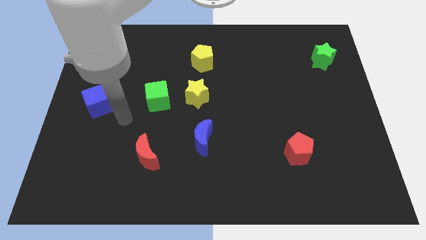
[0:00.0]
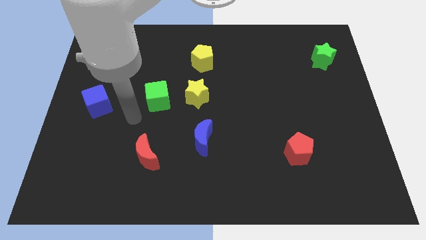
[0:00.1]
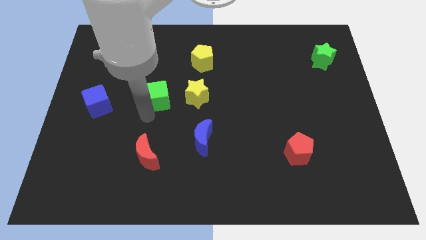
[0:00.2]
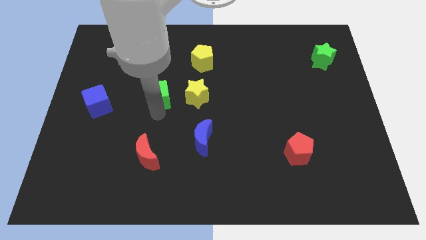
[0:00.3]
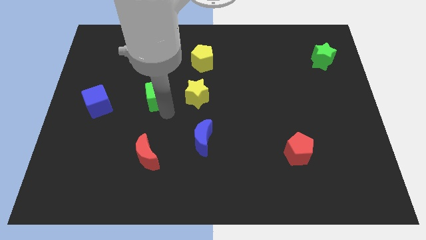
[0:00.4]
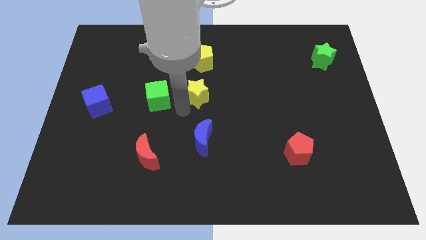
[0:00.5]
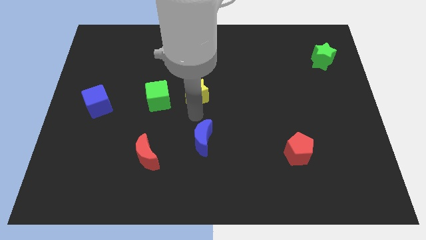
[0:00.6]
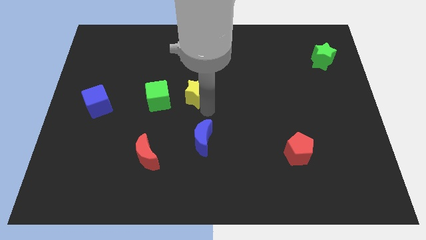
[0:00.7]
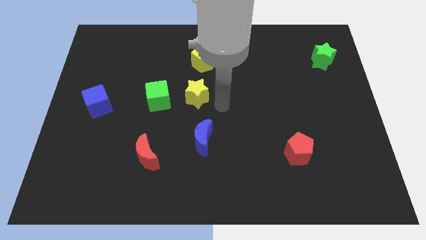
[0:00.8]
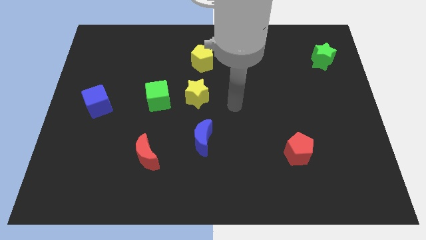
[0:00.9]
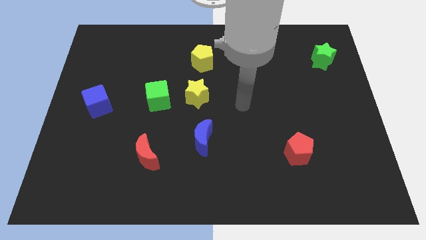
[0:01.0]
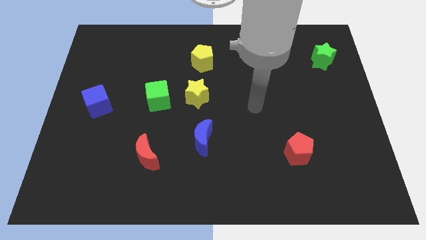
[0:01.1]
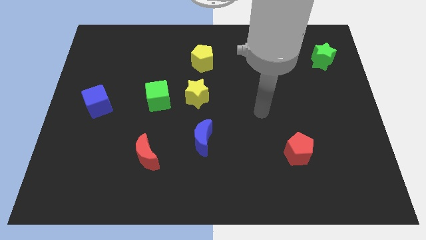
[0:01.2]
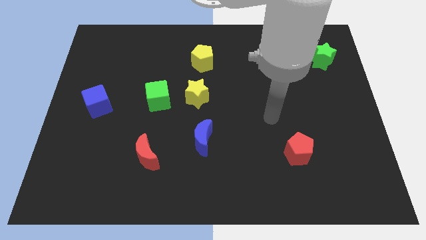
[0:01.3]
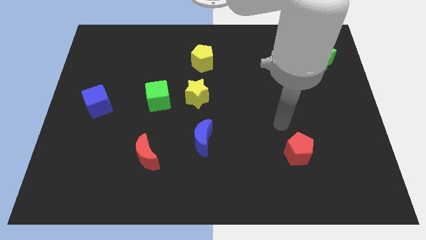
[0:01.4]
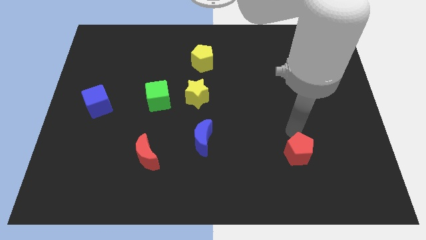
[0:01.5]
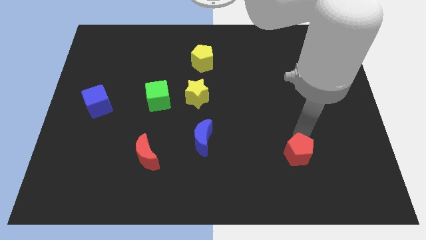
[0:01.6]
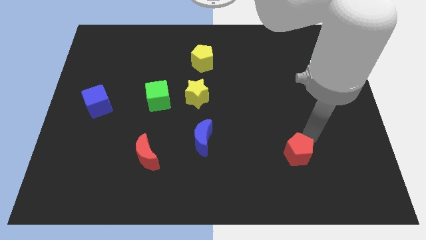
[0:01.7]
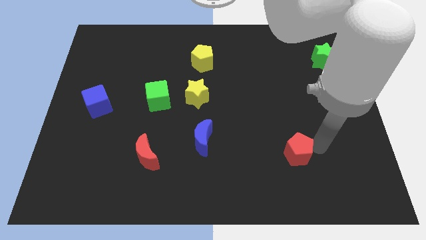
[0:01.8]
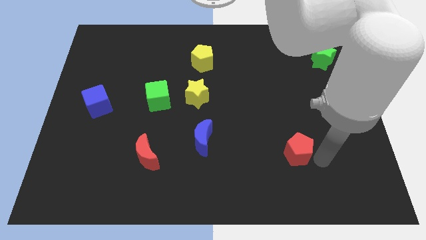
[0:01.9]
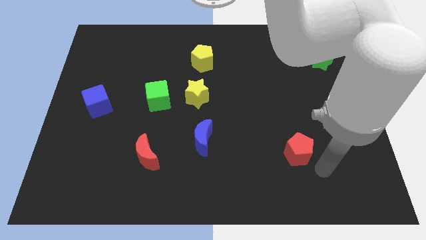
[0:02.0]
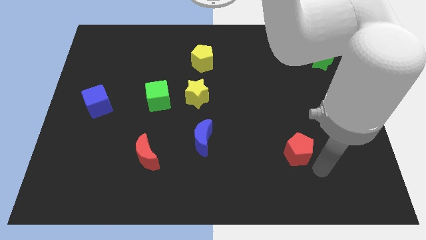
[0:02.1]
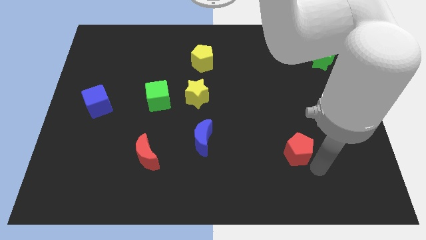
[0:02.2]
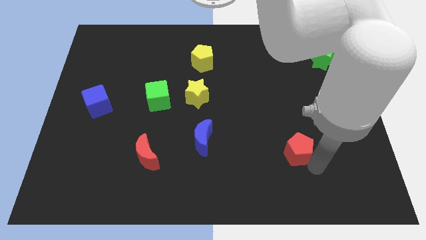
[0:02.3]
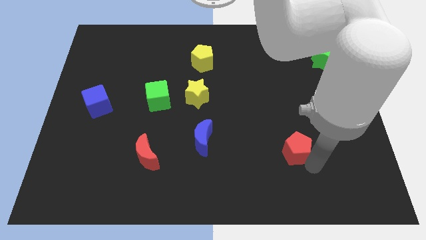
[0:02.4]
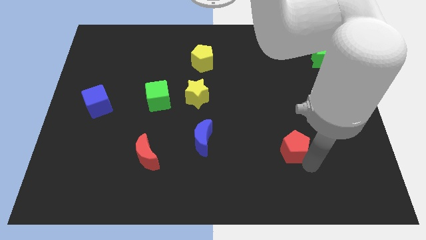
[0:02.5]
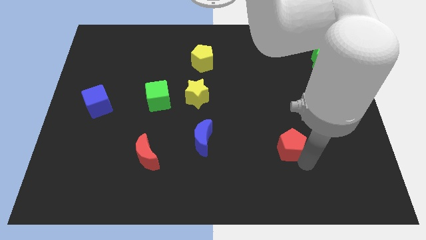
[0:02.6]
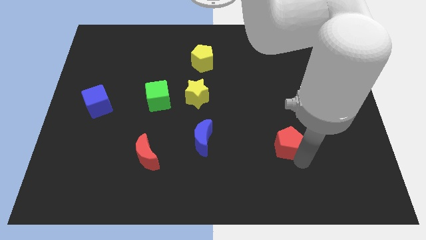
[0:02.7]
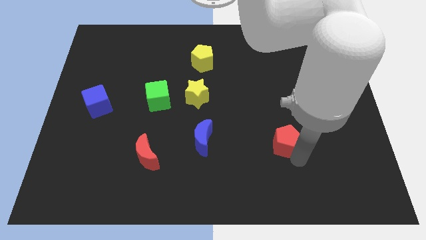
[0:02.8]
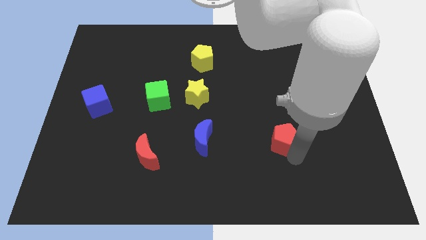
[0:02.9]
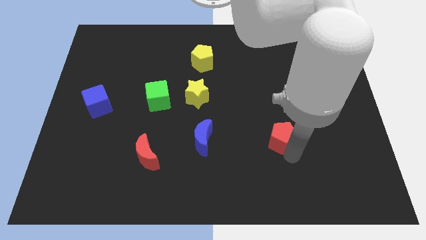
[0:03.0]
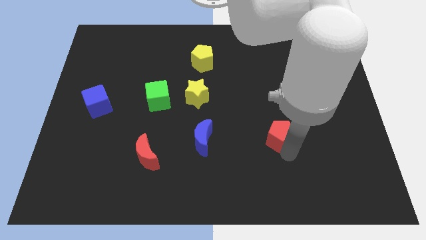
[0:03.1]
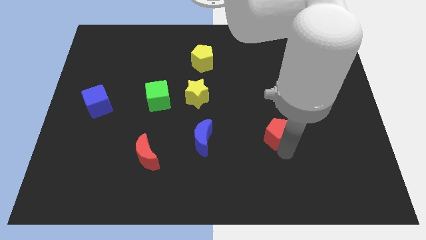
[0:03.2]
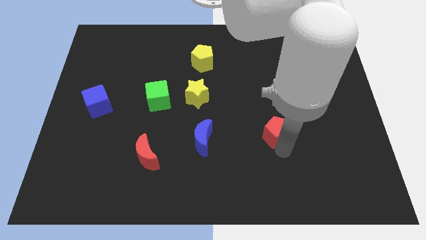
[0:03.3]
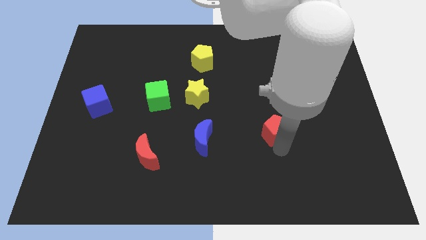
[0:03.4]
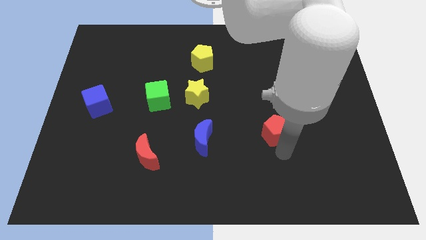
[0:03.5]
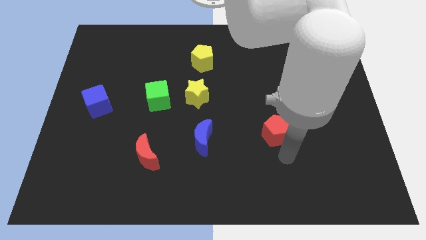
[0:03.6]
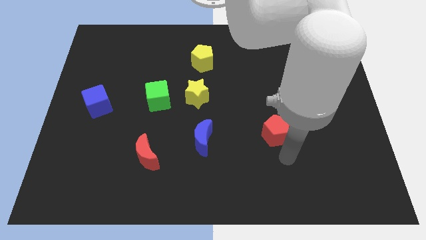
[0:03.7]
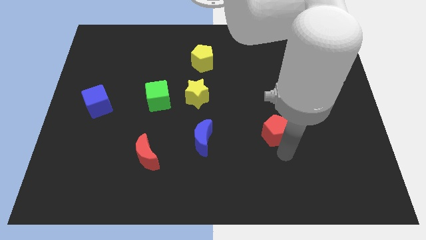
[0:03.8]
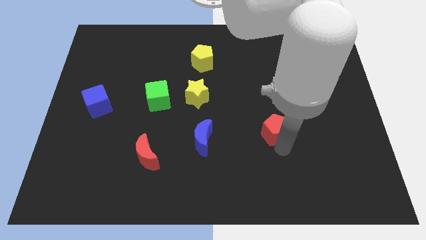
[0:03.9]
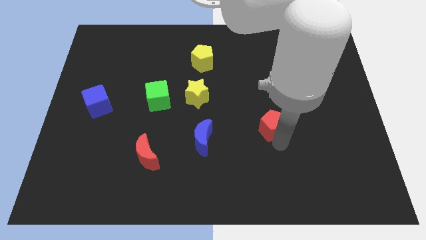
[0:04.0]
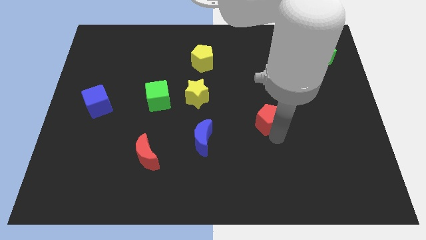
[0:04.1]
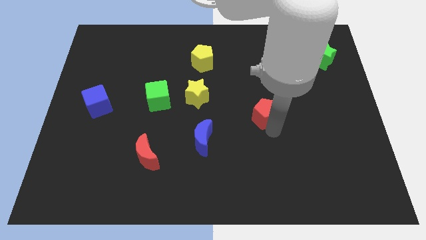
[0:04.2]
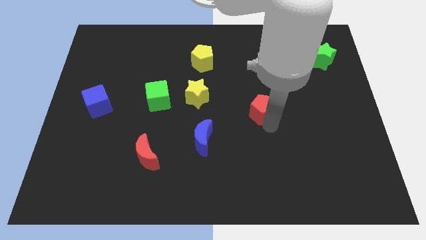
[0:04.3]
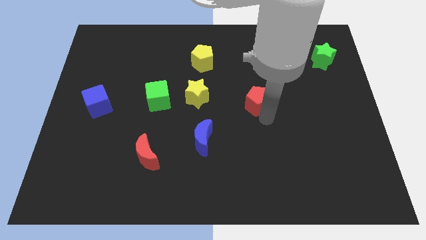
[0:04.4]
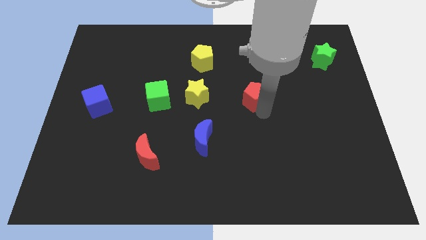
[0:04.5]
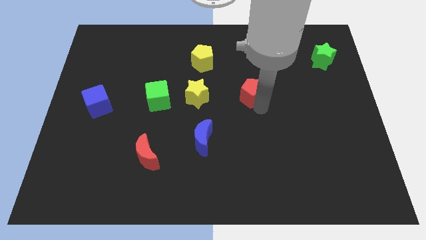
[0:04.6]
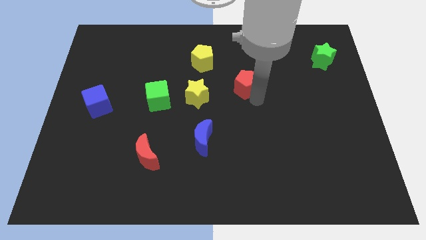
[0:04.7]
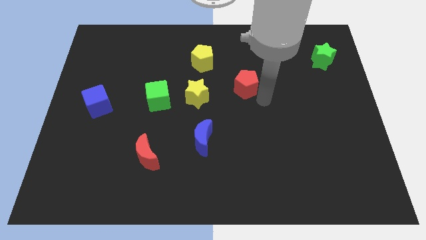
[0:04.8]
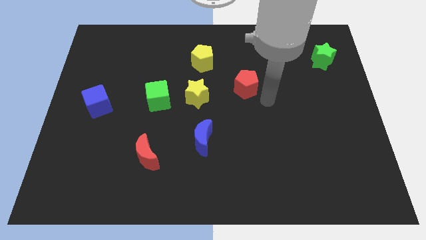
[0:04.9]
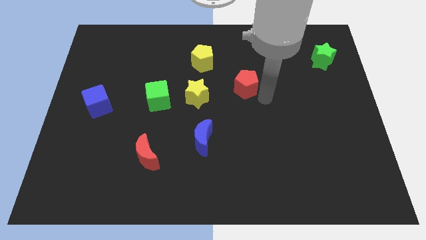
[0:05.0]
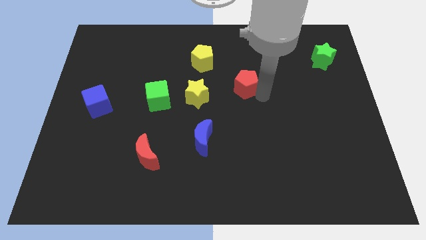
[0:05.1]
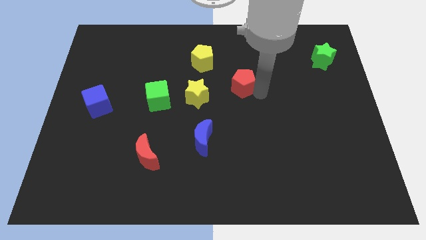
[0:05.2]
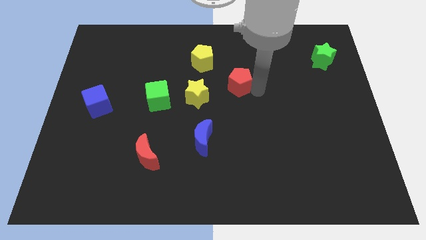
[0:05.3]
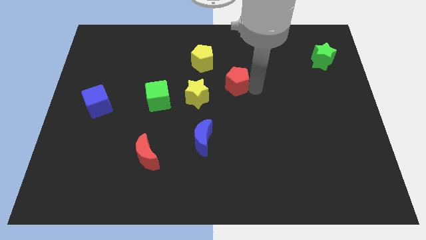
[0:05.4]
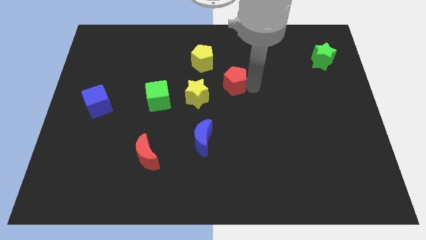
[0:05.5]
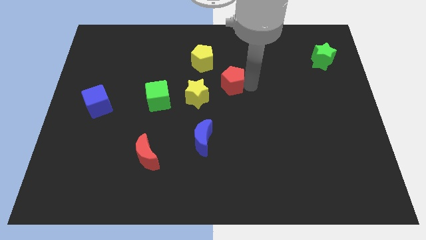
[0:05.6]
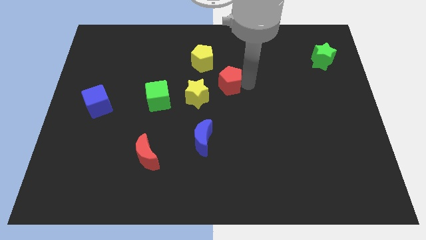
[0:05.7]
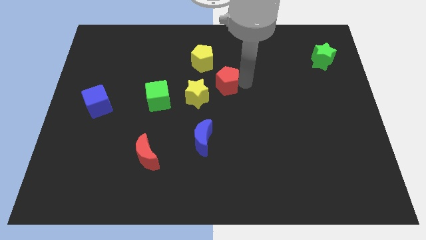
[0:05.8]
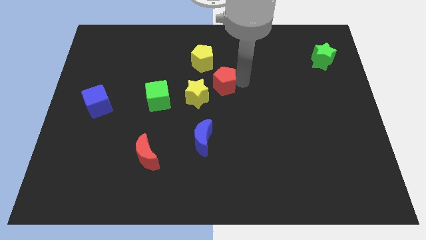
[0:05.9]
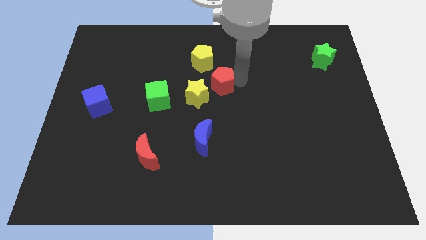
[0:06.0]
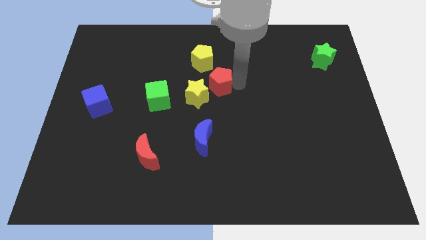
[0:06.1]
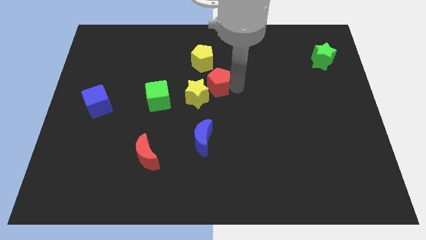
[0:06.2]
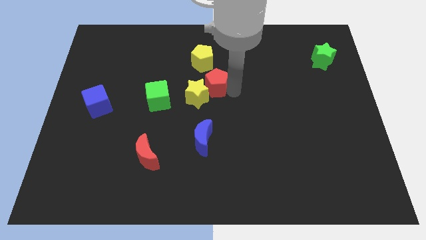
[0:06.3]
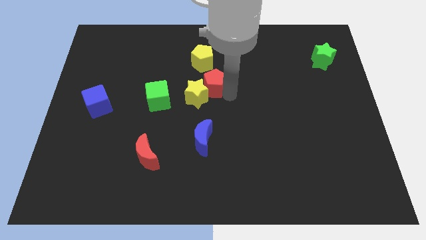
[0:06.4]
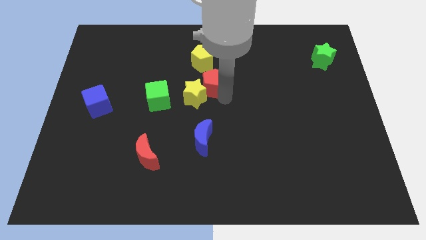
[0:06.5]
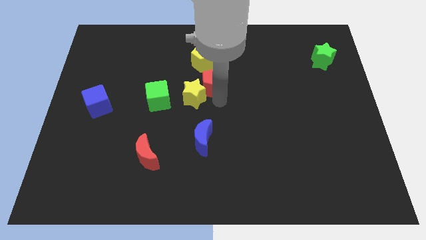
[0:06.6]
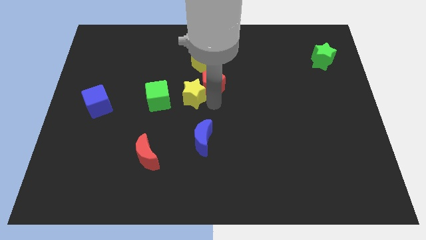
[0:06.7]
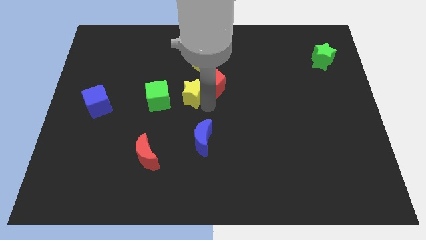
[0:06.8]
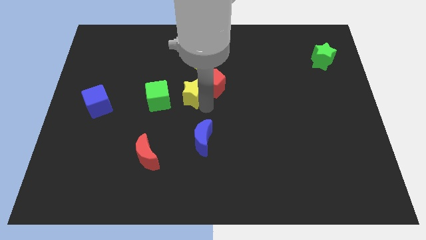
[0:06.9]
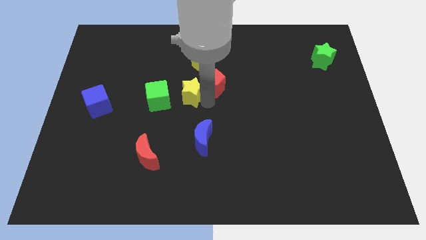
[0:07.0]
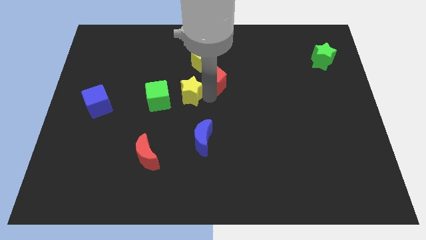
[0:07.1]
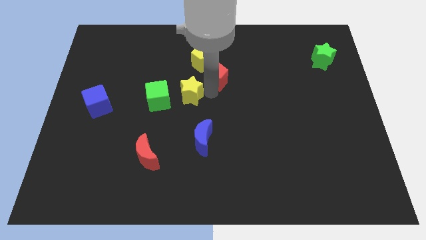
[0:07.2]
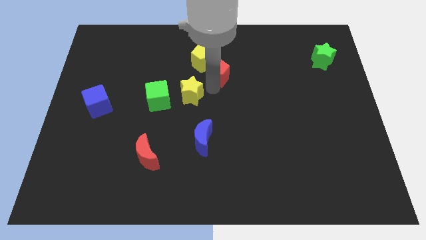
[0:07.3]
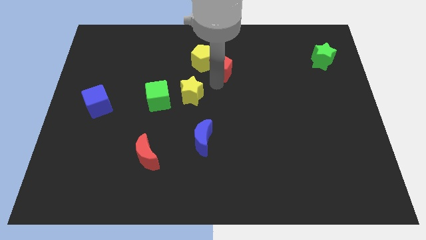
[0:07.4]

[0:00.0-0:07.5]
put the red pentagon next to the yellow pentagon
